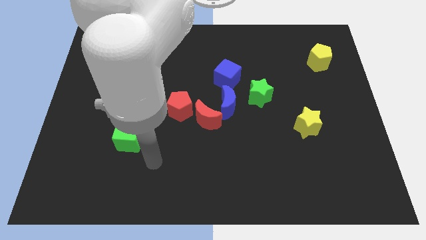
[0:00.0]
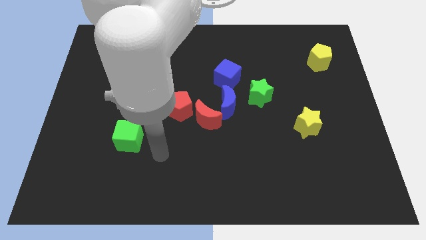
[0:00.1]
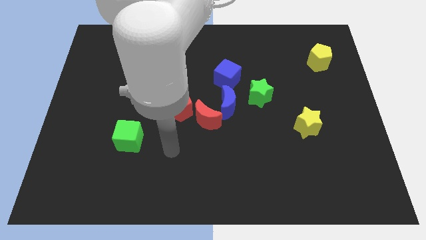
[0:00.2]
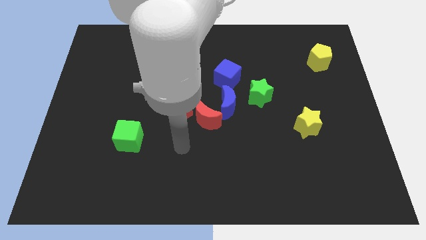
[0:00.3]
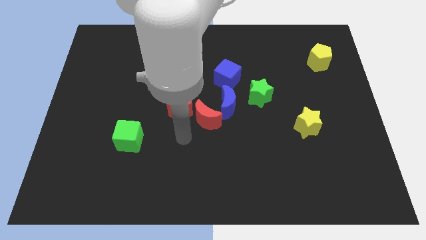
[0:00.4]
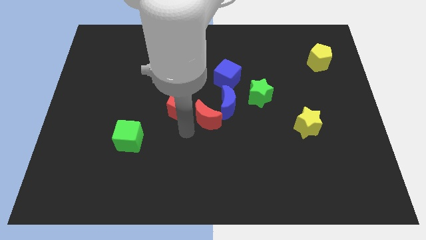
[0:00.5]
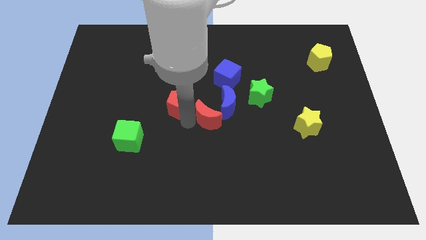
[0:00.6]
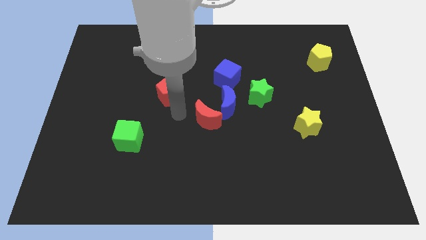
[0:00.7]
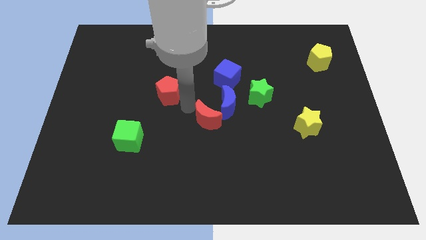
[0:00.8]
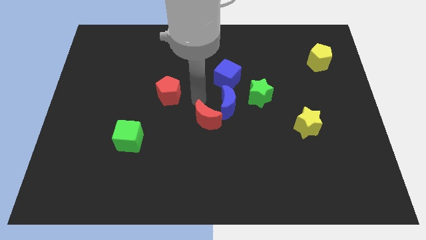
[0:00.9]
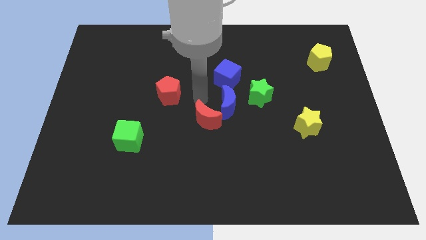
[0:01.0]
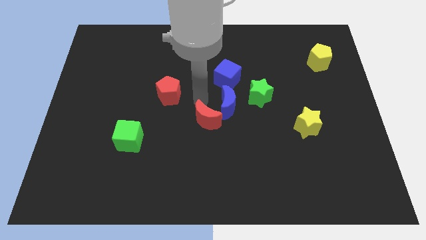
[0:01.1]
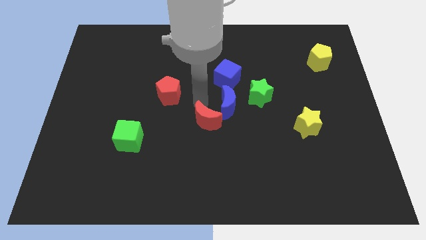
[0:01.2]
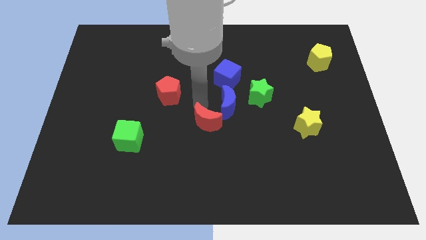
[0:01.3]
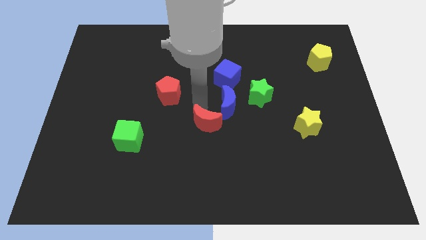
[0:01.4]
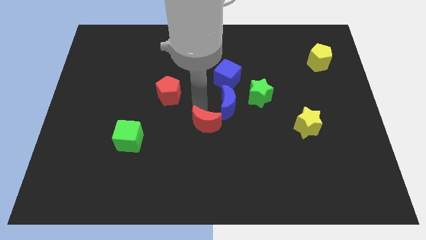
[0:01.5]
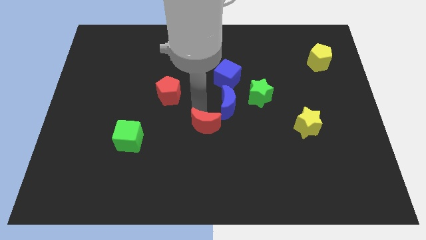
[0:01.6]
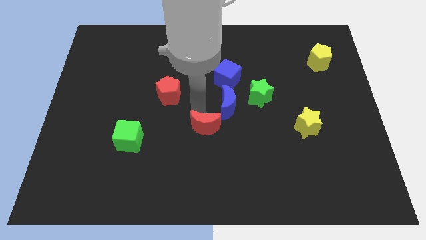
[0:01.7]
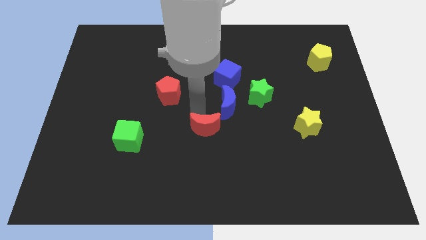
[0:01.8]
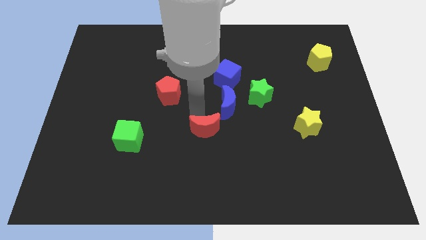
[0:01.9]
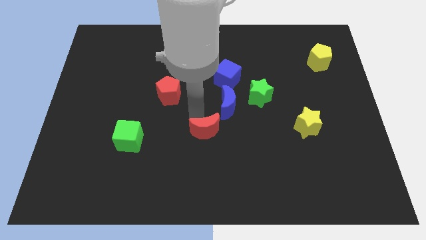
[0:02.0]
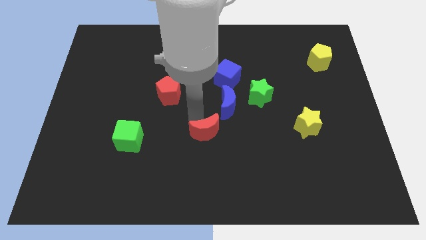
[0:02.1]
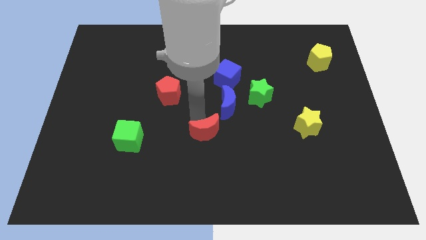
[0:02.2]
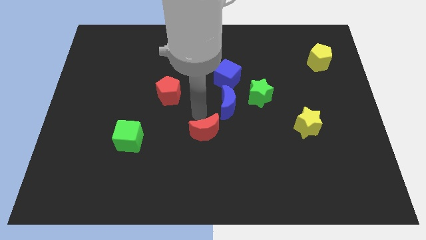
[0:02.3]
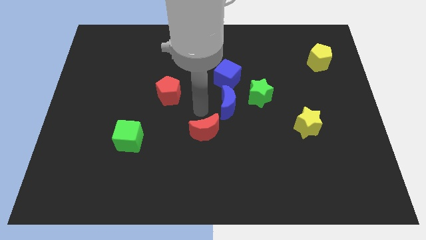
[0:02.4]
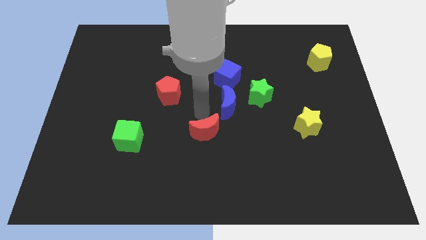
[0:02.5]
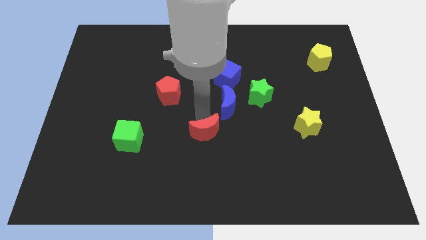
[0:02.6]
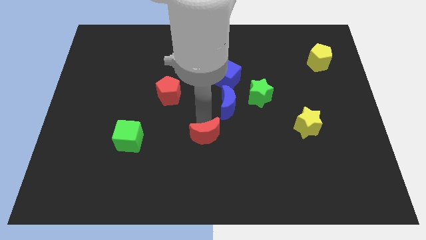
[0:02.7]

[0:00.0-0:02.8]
separate the red moon from the blue moon and red pentagon

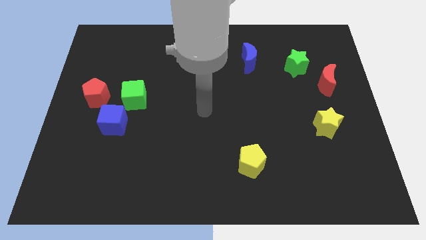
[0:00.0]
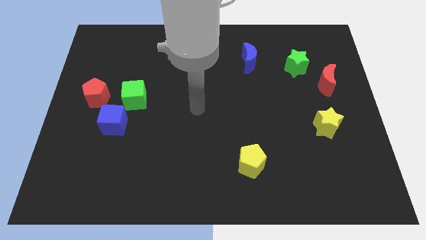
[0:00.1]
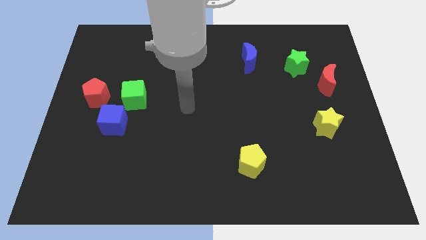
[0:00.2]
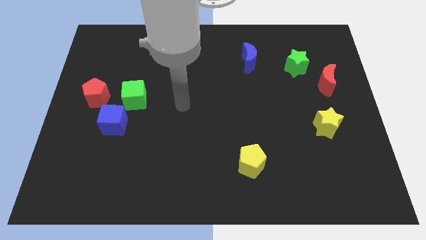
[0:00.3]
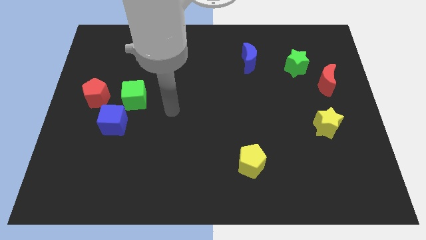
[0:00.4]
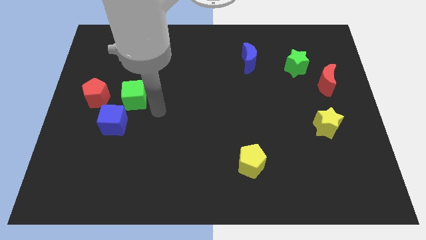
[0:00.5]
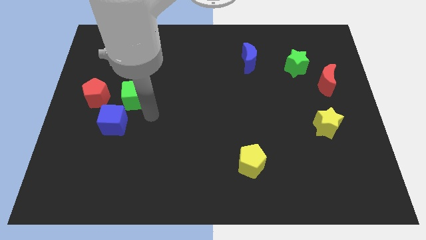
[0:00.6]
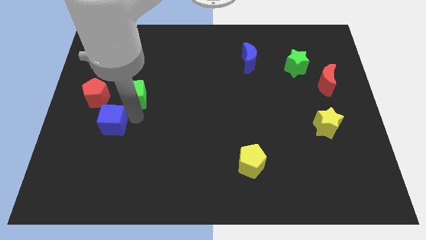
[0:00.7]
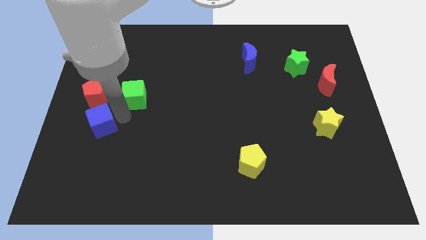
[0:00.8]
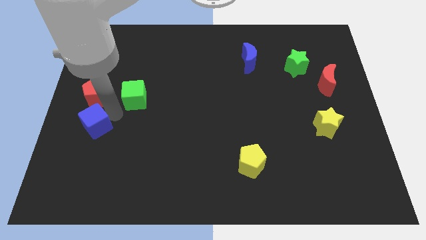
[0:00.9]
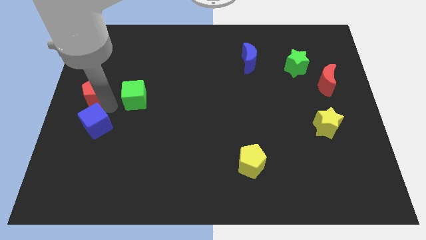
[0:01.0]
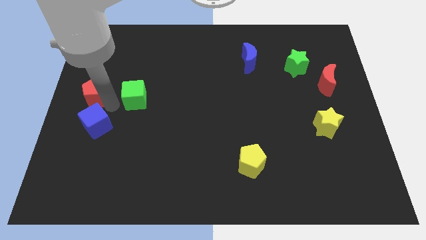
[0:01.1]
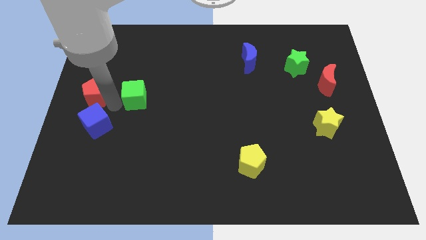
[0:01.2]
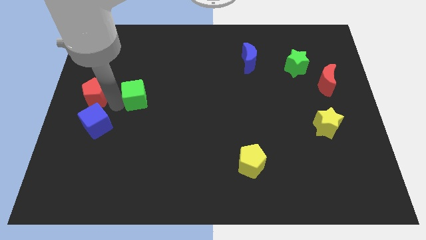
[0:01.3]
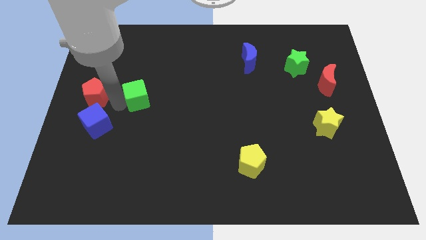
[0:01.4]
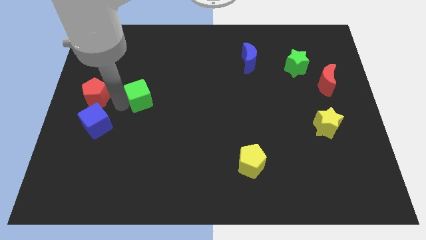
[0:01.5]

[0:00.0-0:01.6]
move the green cube away from the blue cube and red pentagon

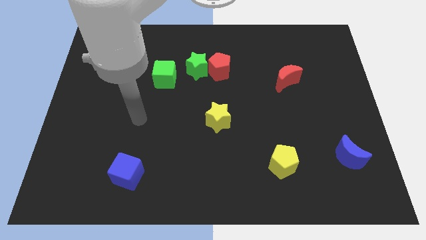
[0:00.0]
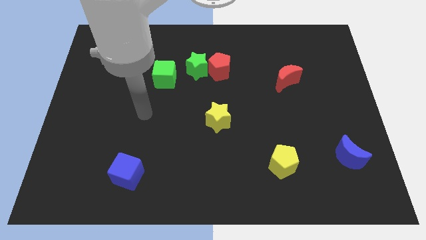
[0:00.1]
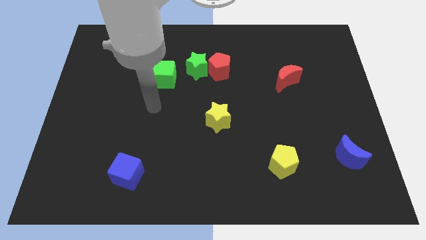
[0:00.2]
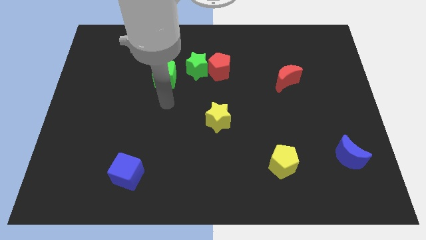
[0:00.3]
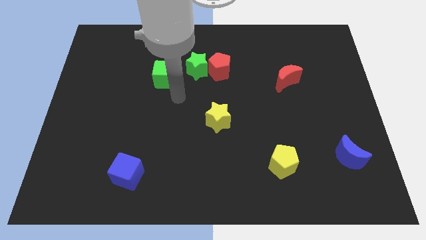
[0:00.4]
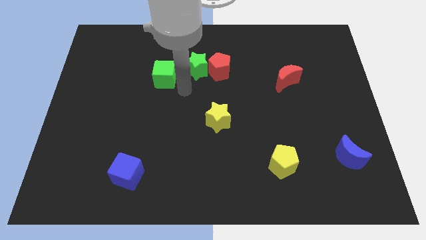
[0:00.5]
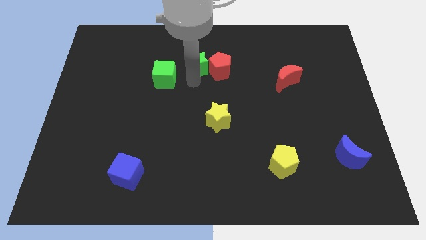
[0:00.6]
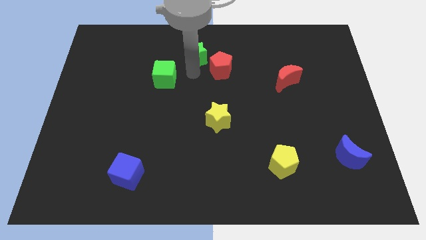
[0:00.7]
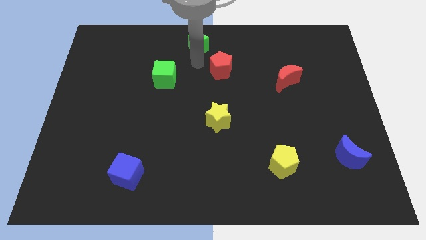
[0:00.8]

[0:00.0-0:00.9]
move the red pentagon away from the green star

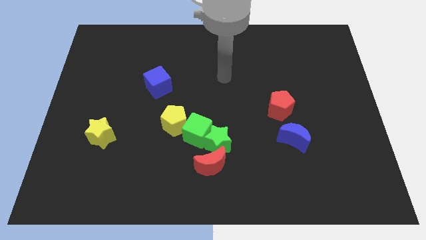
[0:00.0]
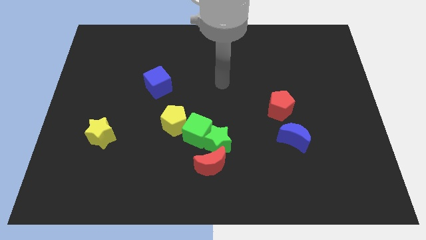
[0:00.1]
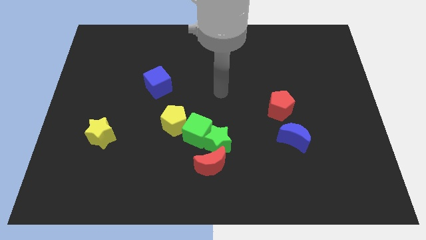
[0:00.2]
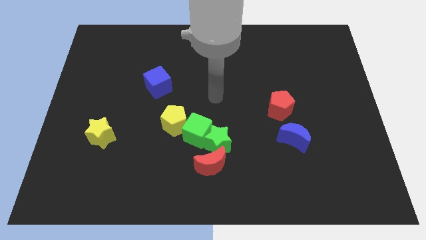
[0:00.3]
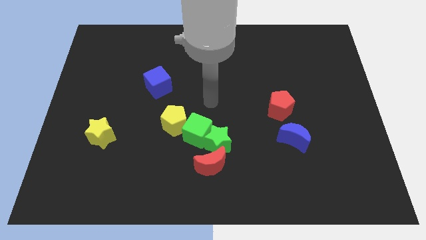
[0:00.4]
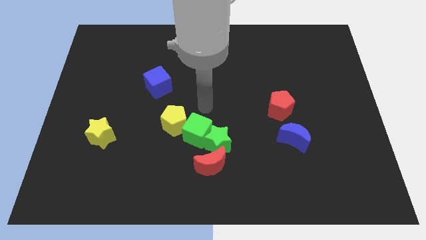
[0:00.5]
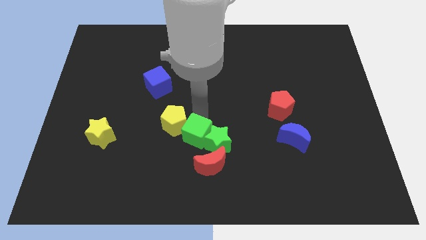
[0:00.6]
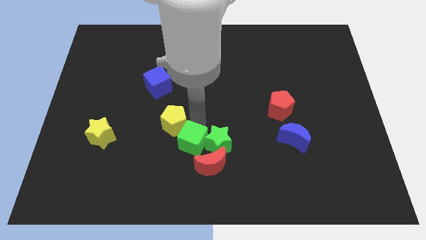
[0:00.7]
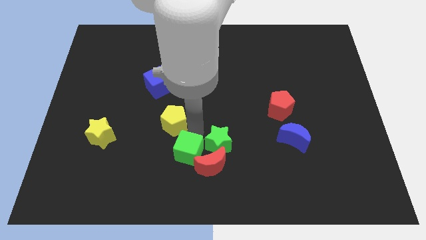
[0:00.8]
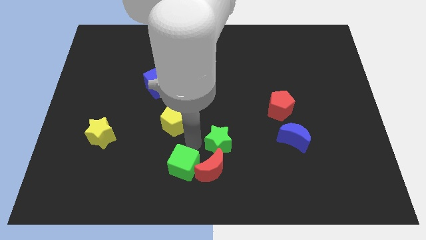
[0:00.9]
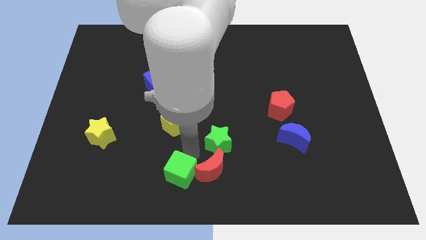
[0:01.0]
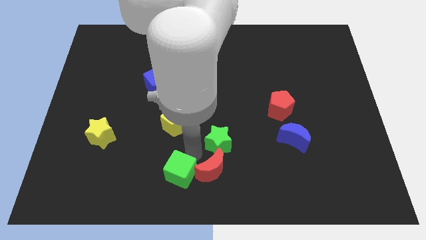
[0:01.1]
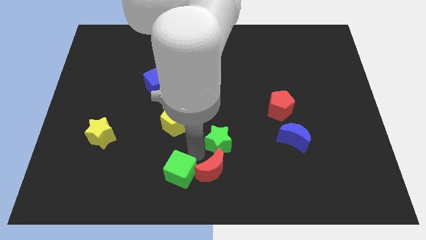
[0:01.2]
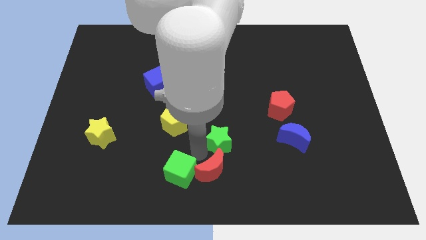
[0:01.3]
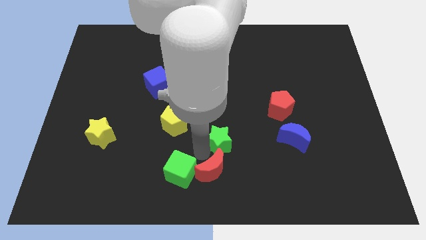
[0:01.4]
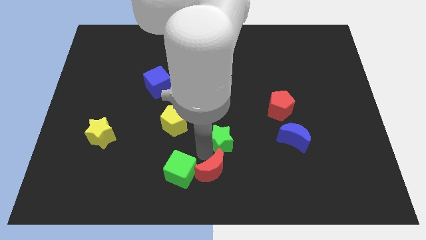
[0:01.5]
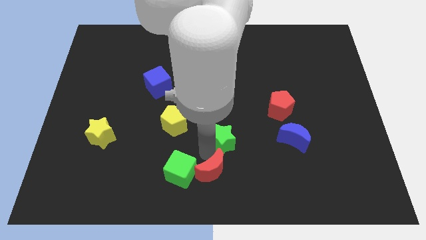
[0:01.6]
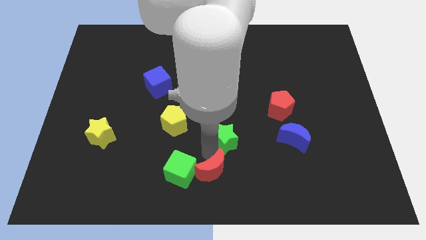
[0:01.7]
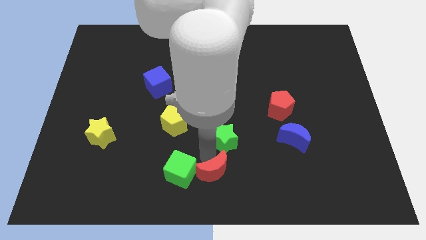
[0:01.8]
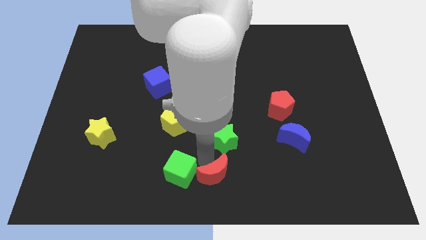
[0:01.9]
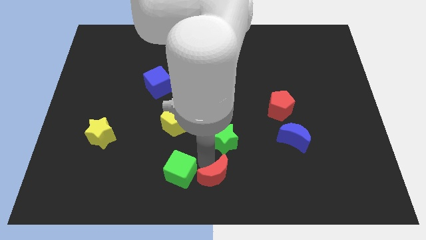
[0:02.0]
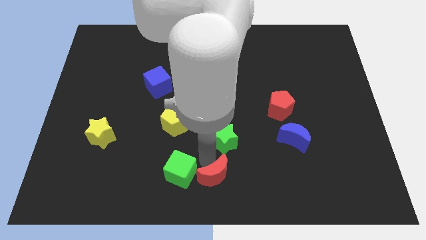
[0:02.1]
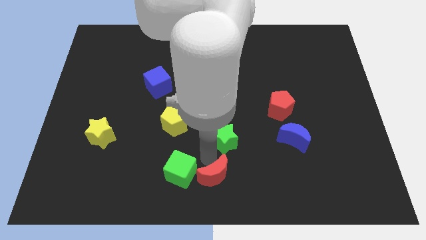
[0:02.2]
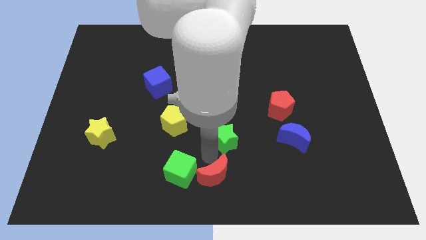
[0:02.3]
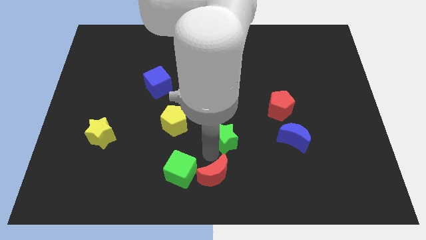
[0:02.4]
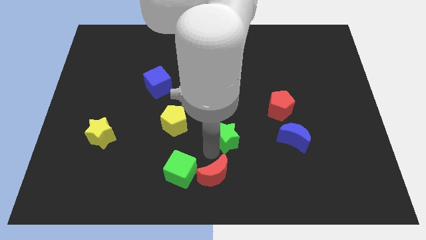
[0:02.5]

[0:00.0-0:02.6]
separate the green star from the red moon and green cube

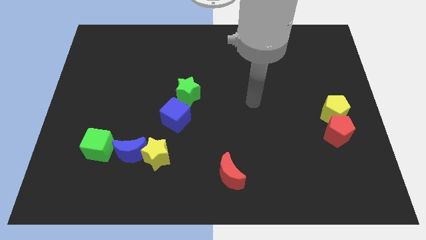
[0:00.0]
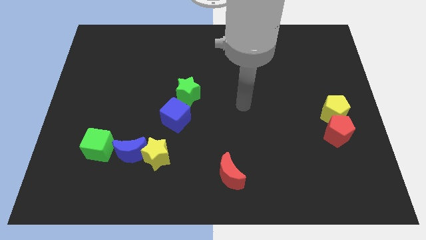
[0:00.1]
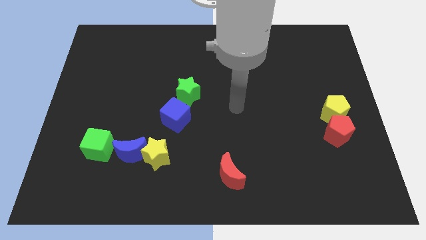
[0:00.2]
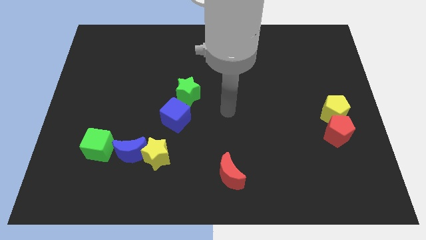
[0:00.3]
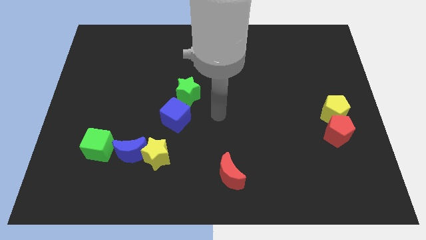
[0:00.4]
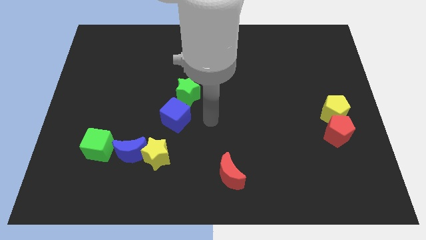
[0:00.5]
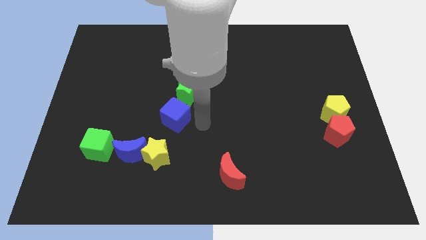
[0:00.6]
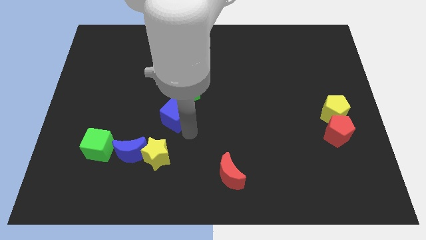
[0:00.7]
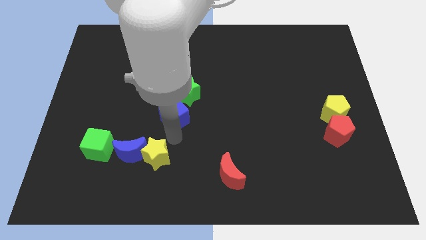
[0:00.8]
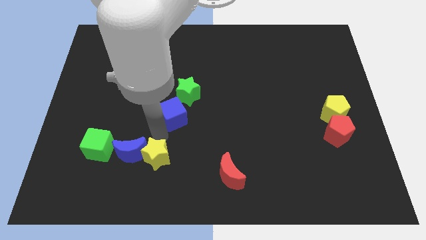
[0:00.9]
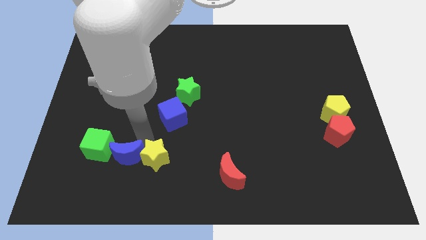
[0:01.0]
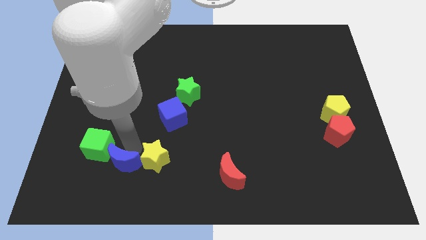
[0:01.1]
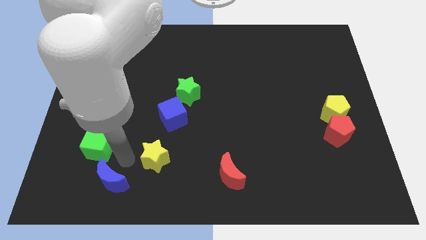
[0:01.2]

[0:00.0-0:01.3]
separate the yellow star from the blue moon
